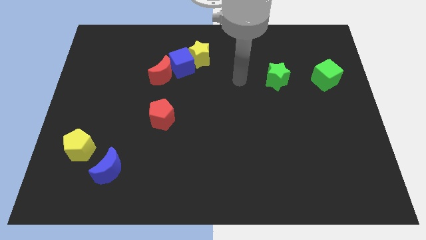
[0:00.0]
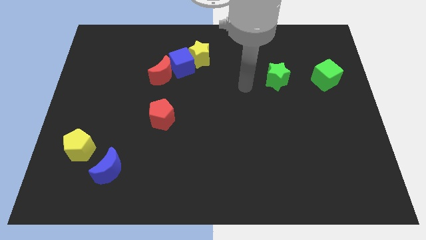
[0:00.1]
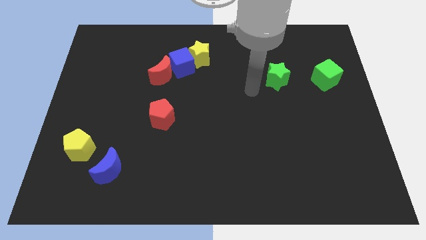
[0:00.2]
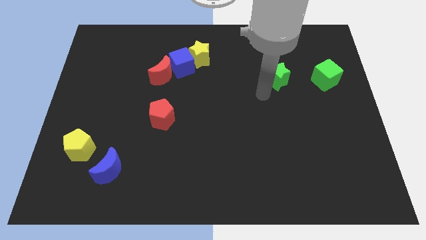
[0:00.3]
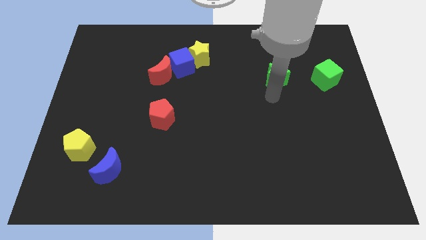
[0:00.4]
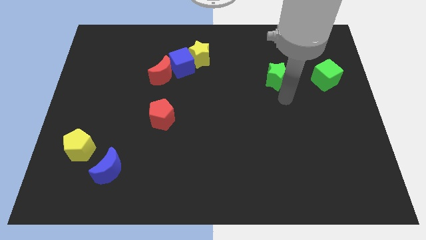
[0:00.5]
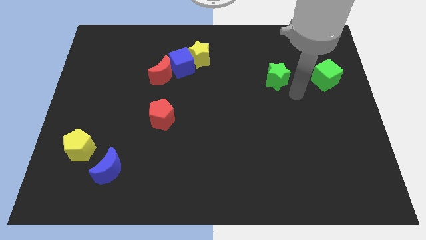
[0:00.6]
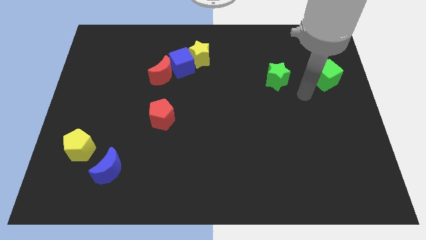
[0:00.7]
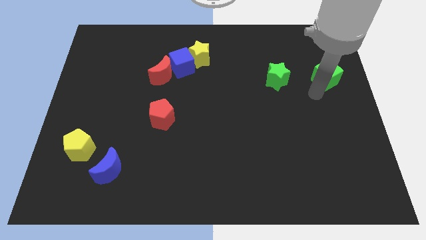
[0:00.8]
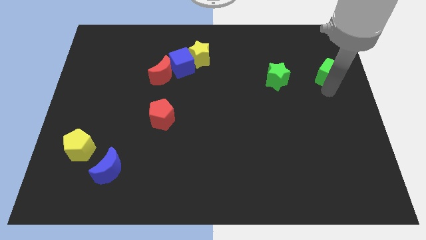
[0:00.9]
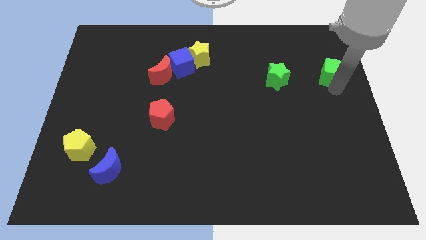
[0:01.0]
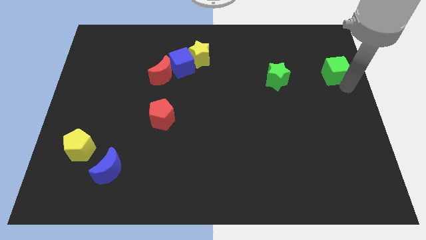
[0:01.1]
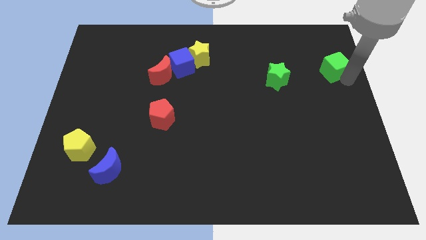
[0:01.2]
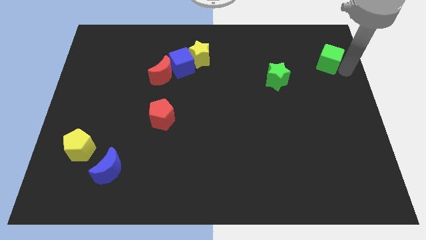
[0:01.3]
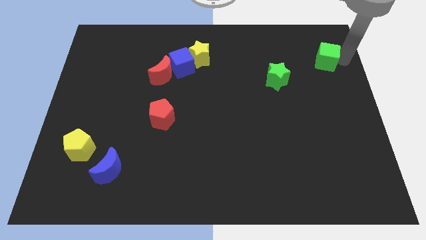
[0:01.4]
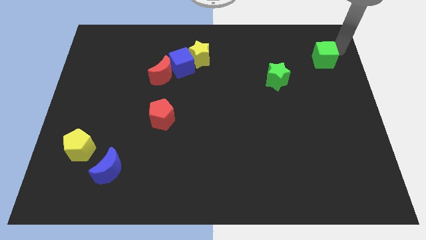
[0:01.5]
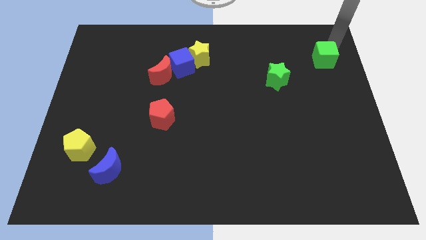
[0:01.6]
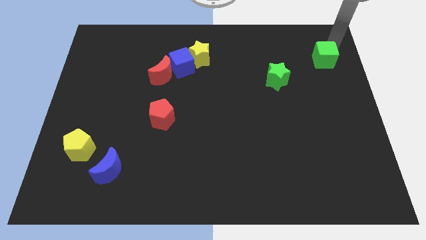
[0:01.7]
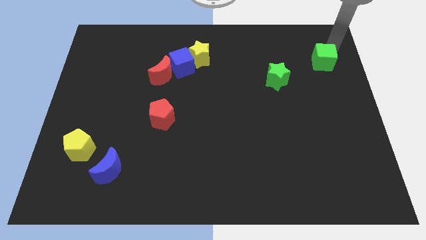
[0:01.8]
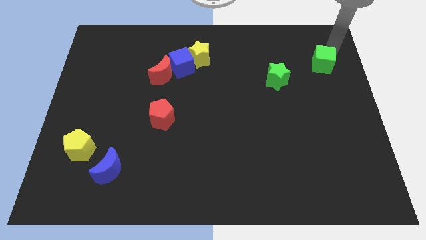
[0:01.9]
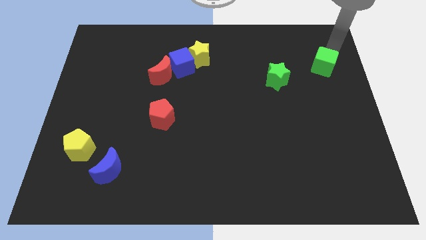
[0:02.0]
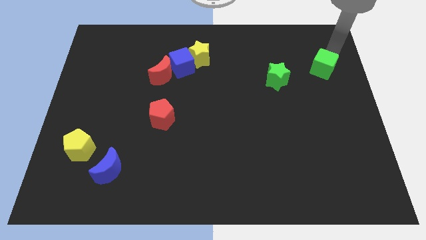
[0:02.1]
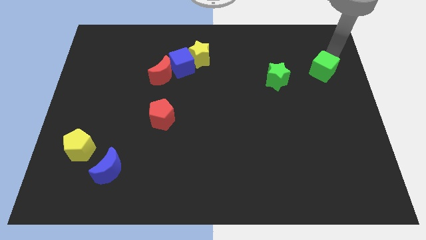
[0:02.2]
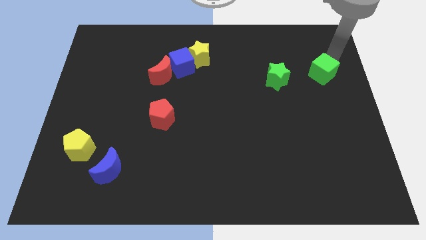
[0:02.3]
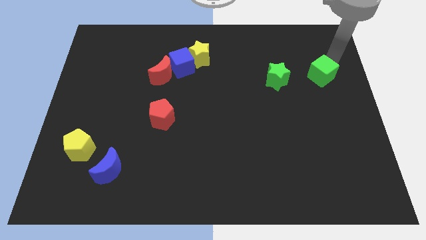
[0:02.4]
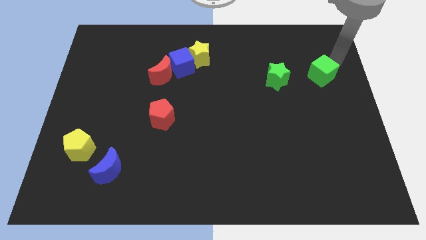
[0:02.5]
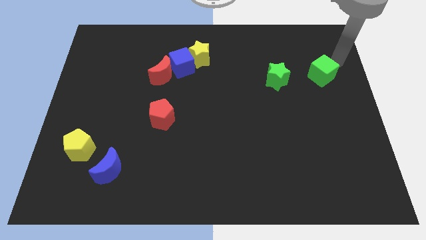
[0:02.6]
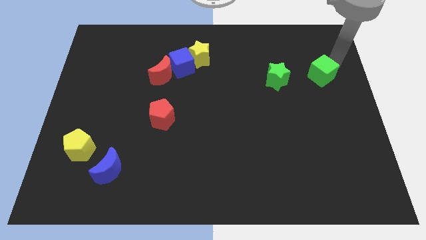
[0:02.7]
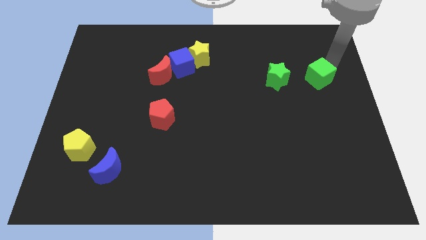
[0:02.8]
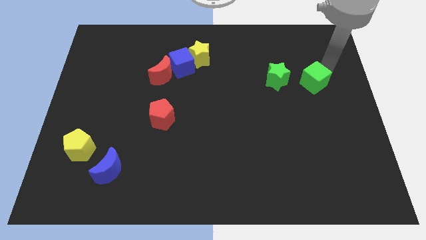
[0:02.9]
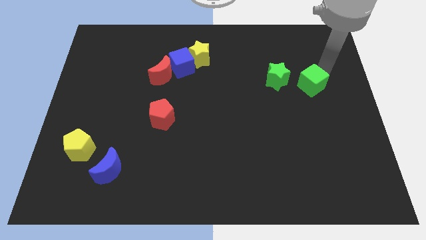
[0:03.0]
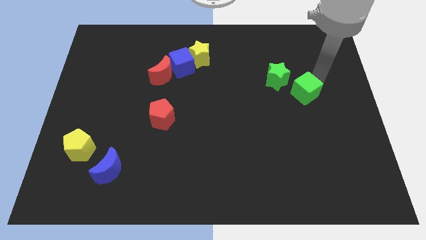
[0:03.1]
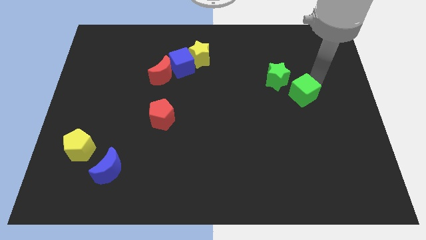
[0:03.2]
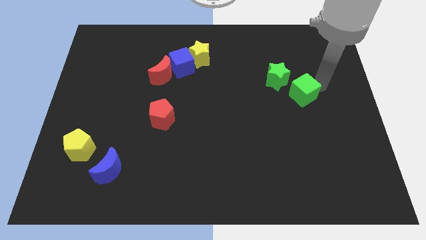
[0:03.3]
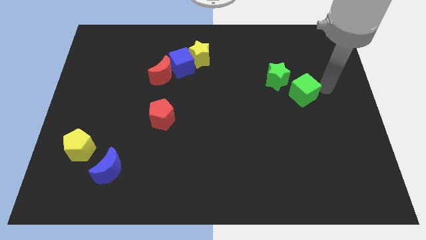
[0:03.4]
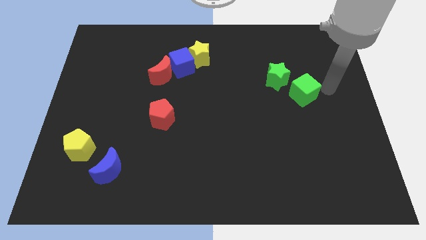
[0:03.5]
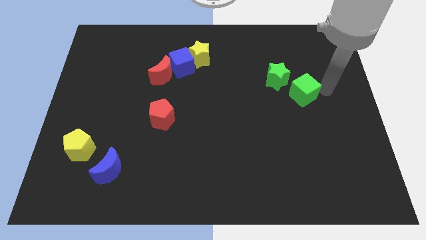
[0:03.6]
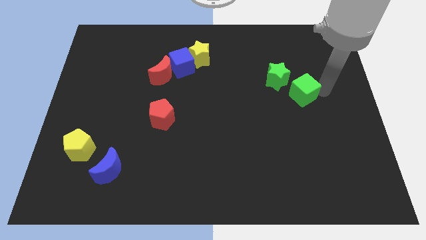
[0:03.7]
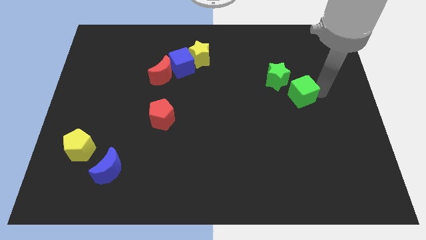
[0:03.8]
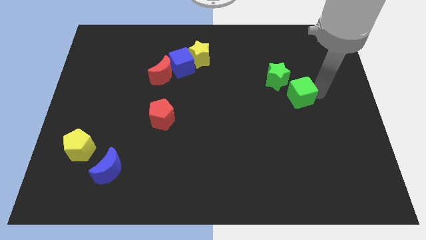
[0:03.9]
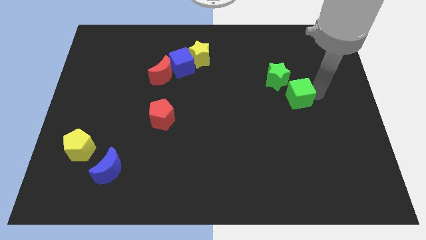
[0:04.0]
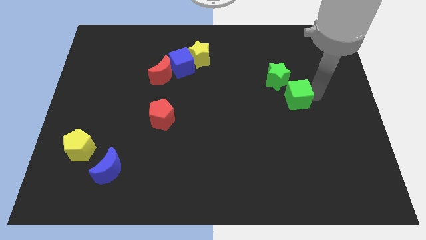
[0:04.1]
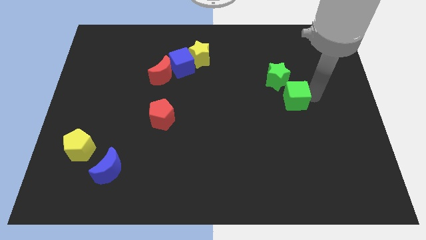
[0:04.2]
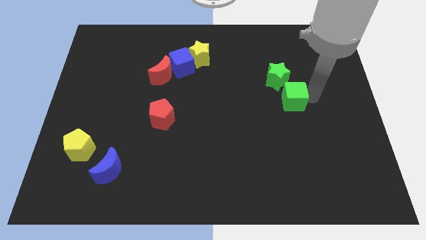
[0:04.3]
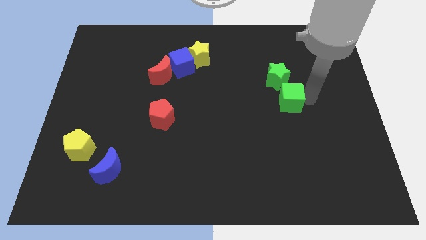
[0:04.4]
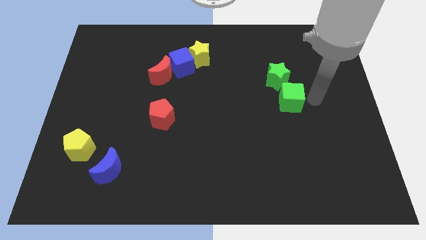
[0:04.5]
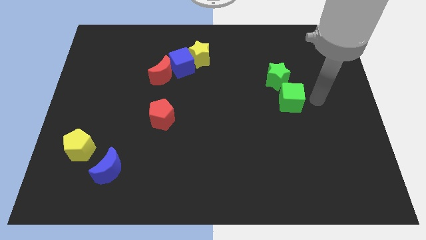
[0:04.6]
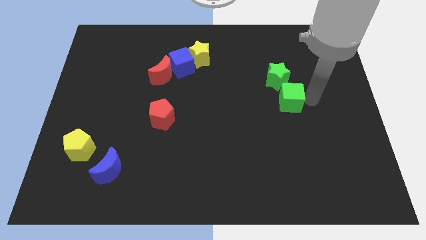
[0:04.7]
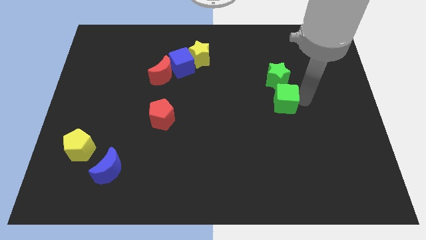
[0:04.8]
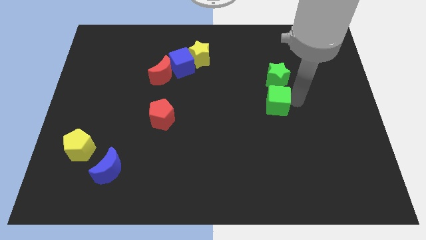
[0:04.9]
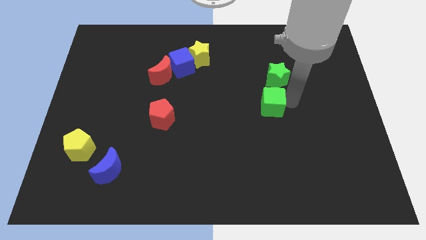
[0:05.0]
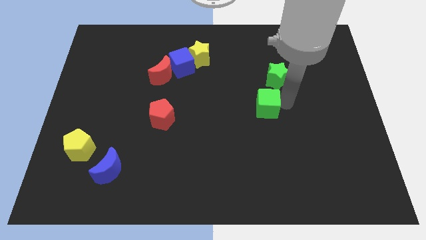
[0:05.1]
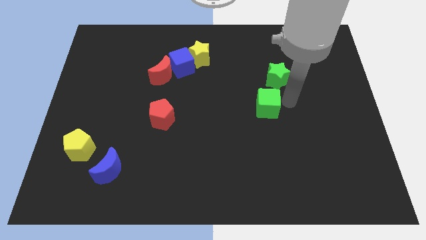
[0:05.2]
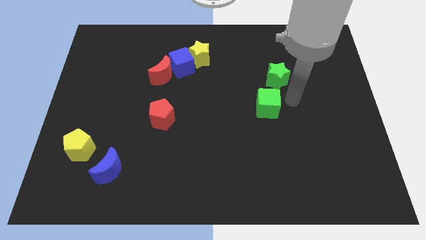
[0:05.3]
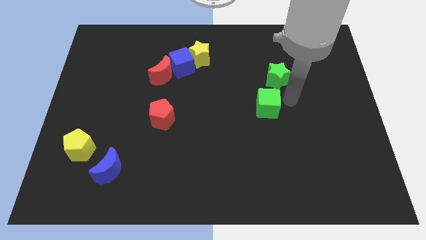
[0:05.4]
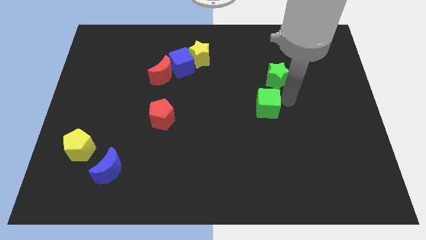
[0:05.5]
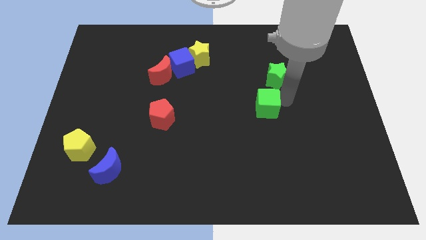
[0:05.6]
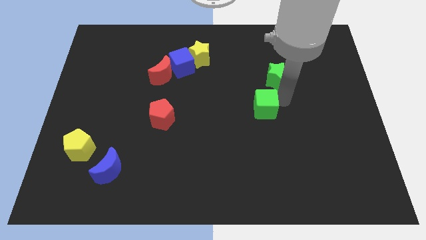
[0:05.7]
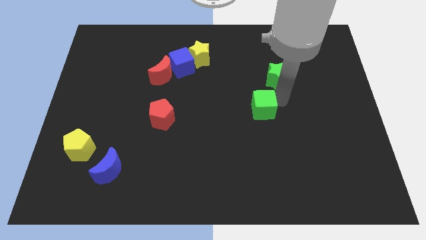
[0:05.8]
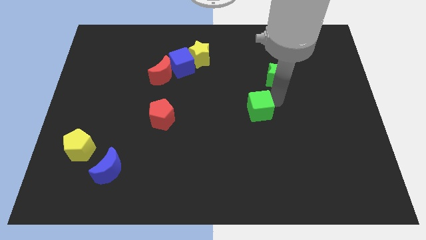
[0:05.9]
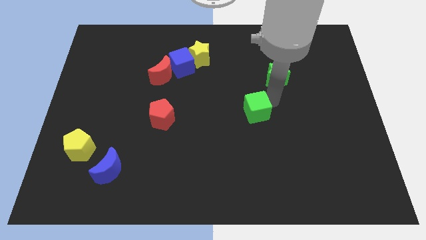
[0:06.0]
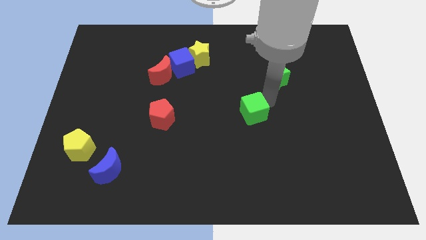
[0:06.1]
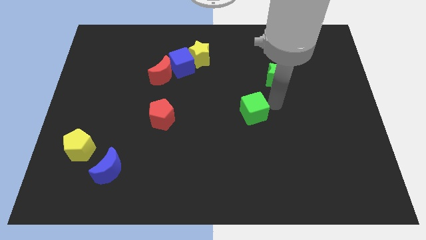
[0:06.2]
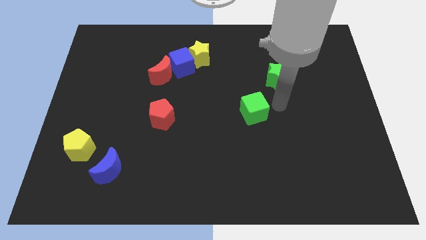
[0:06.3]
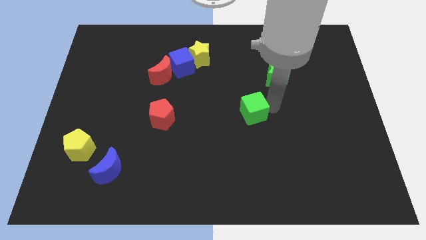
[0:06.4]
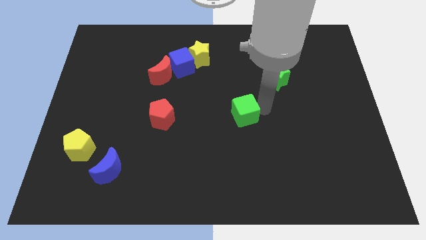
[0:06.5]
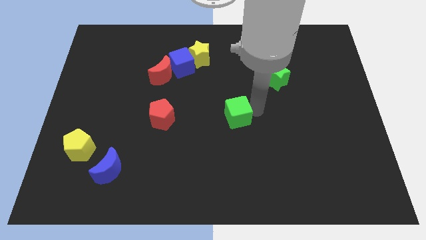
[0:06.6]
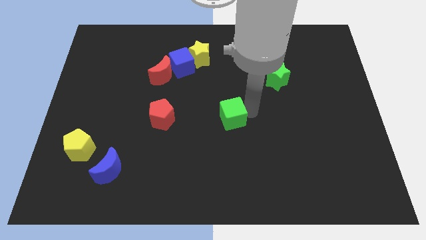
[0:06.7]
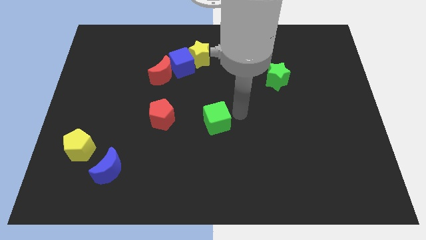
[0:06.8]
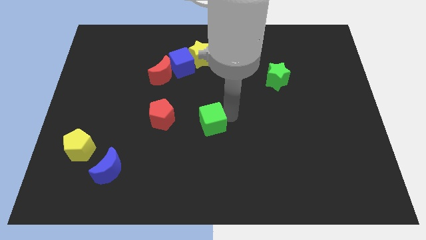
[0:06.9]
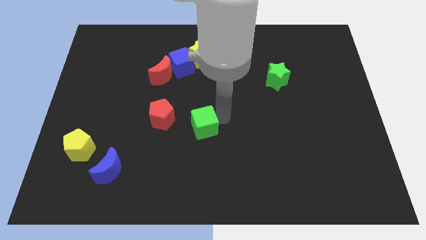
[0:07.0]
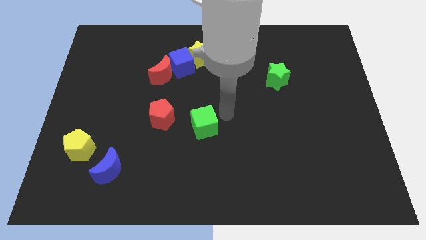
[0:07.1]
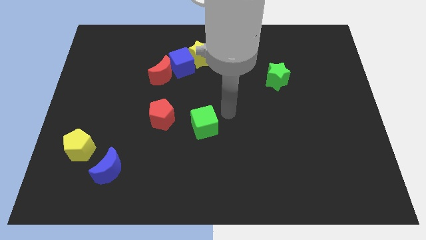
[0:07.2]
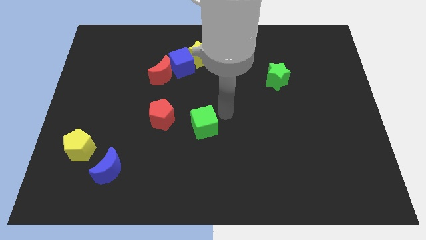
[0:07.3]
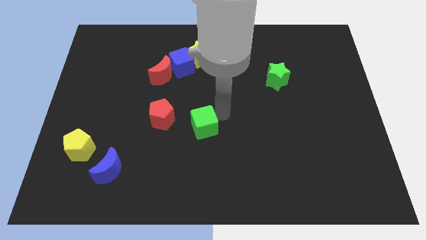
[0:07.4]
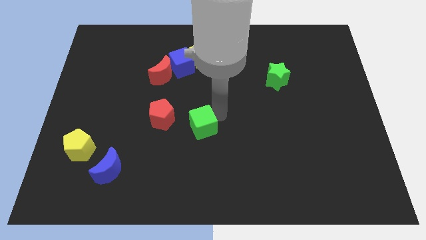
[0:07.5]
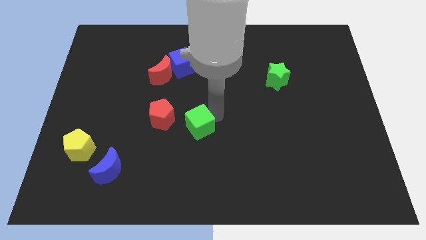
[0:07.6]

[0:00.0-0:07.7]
put the green cube to the bottom right of the red pentagon

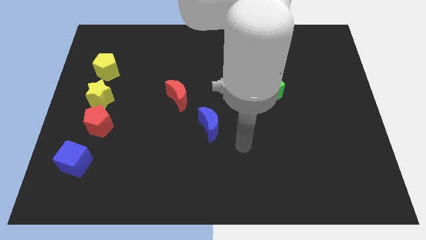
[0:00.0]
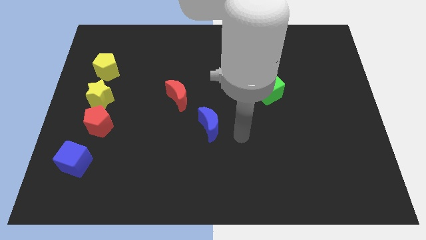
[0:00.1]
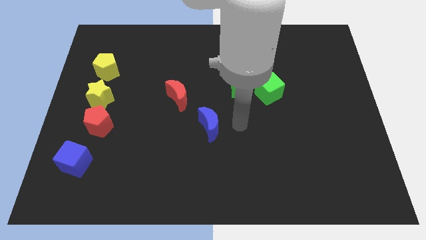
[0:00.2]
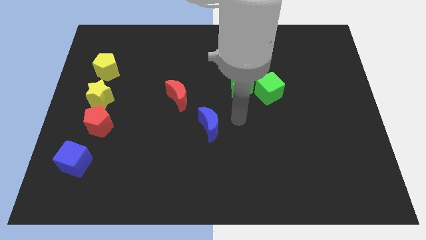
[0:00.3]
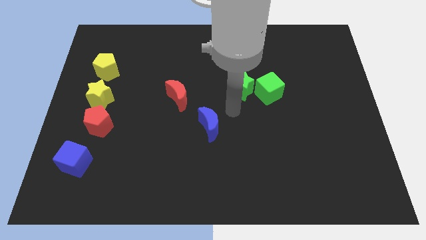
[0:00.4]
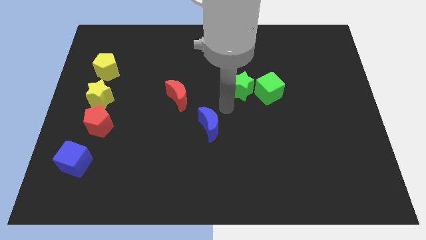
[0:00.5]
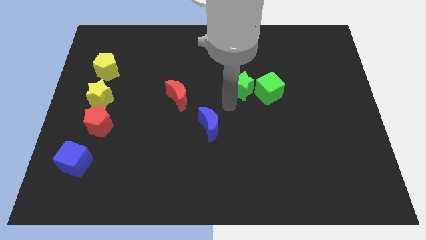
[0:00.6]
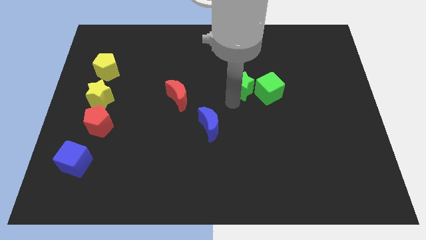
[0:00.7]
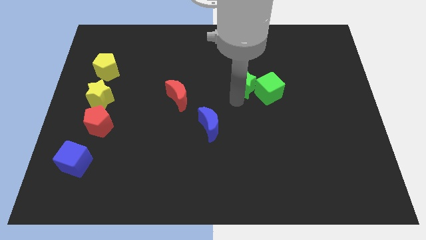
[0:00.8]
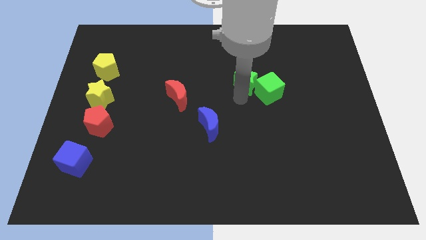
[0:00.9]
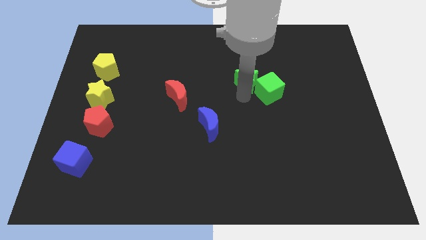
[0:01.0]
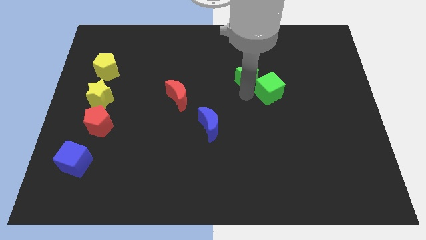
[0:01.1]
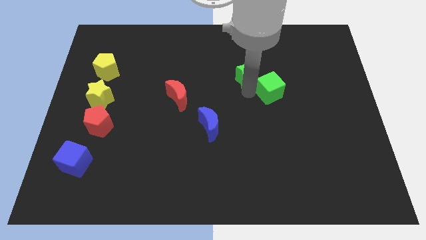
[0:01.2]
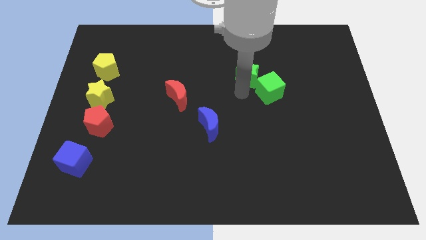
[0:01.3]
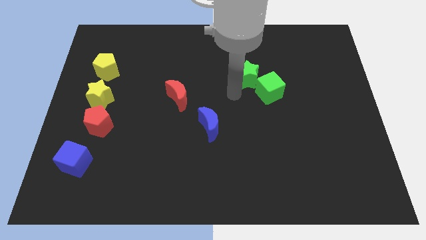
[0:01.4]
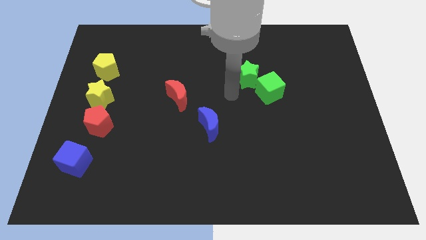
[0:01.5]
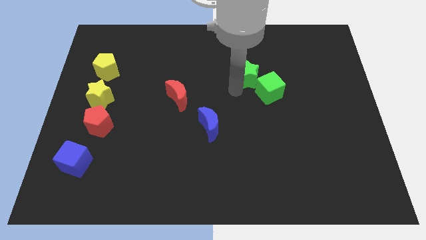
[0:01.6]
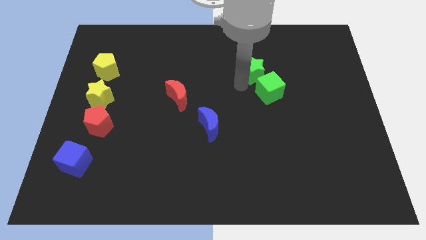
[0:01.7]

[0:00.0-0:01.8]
push the green star to the top of the green cube
